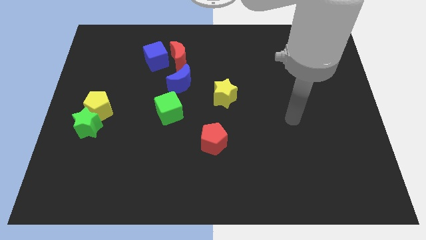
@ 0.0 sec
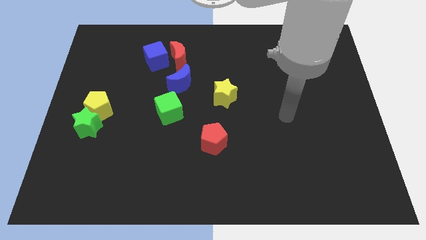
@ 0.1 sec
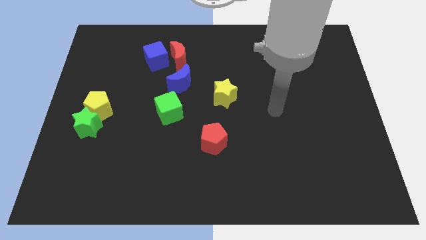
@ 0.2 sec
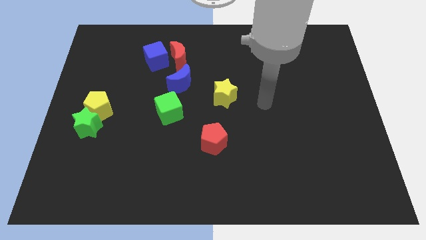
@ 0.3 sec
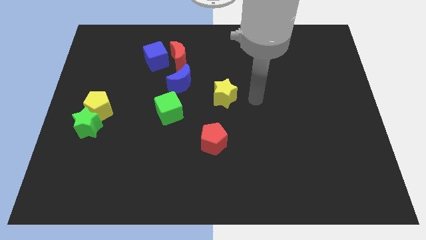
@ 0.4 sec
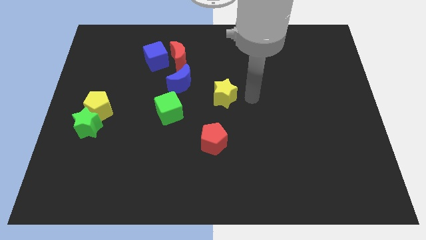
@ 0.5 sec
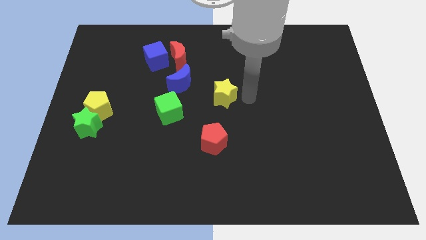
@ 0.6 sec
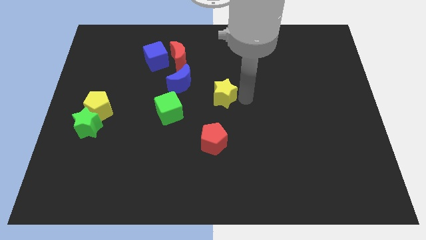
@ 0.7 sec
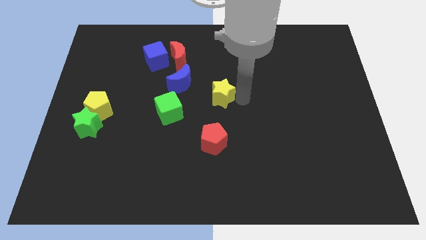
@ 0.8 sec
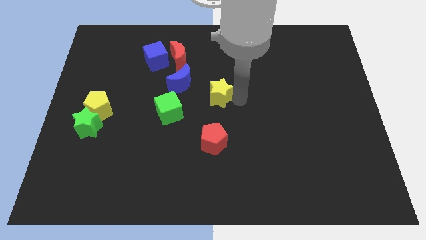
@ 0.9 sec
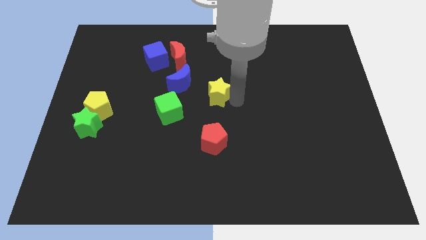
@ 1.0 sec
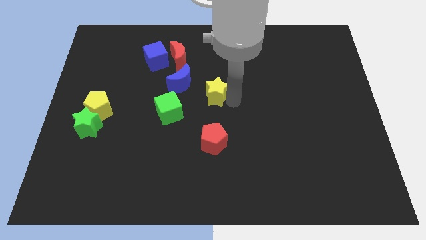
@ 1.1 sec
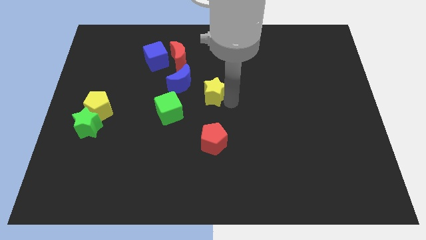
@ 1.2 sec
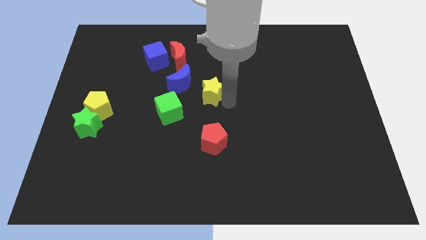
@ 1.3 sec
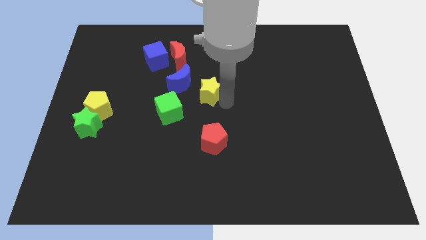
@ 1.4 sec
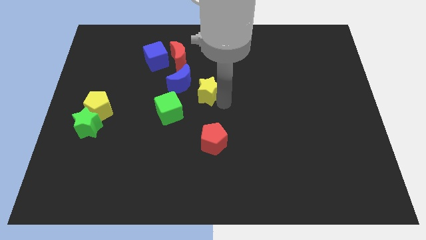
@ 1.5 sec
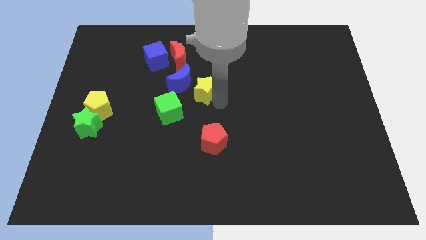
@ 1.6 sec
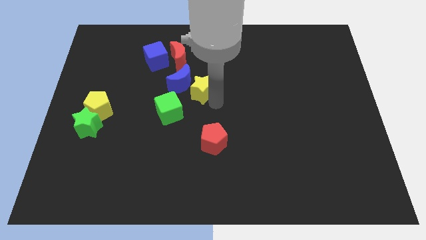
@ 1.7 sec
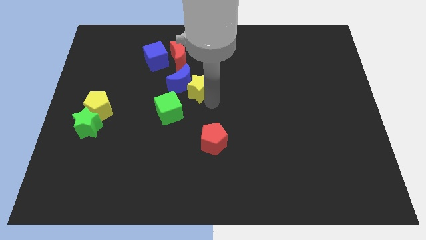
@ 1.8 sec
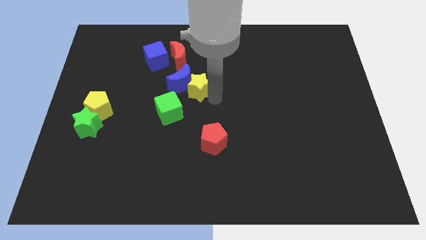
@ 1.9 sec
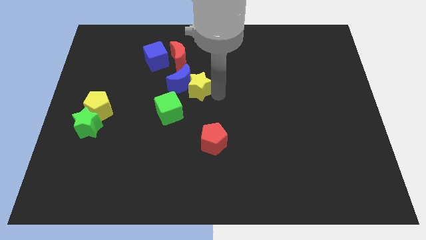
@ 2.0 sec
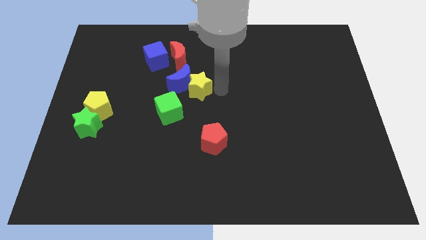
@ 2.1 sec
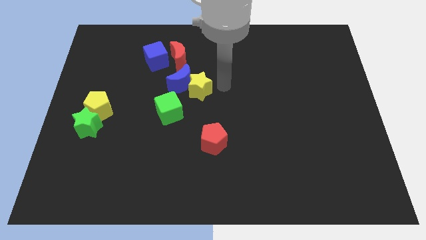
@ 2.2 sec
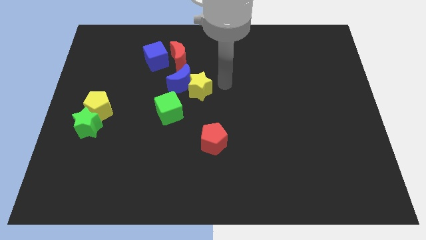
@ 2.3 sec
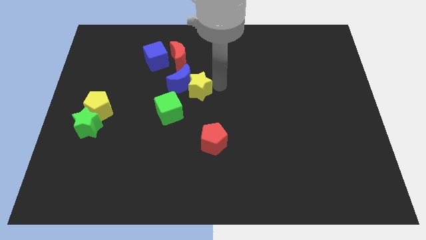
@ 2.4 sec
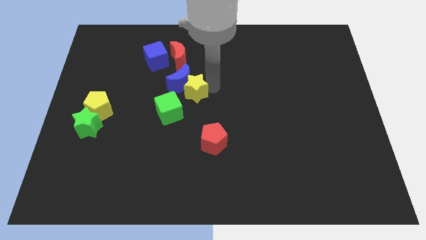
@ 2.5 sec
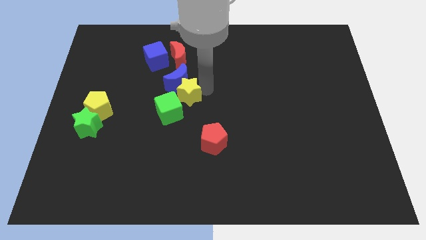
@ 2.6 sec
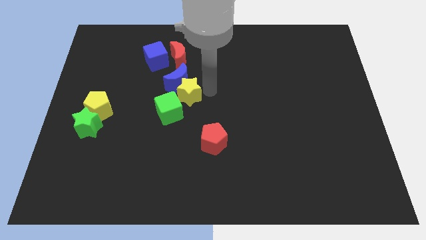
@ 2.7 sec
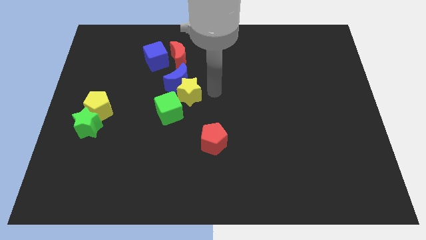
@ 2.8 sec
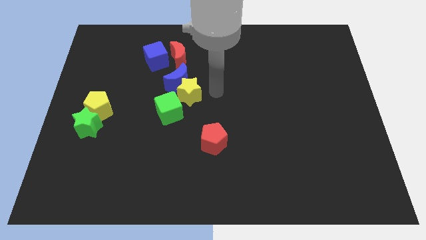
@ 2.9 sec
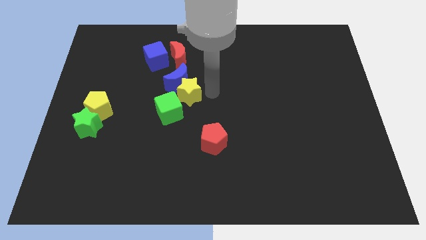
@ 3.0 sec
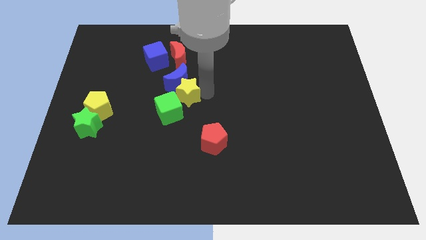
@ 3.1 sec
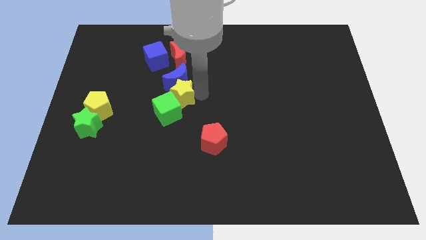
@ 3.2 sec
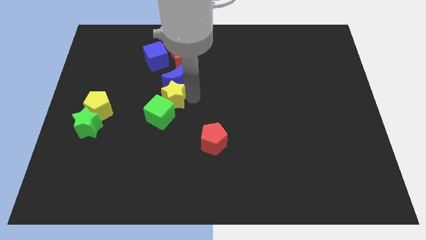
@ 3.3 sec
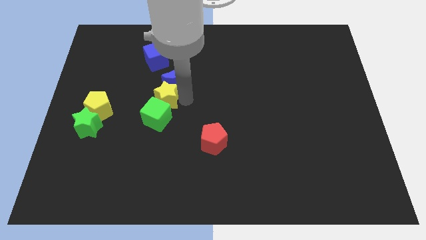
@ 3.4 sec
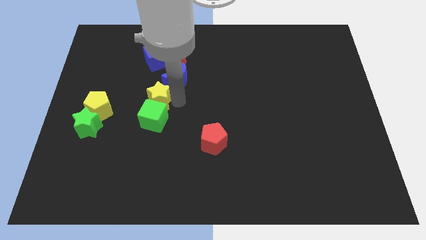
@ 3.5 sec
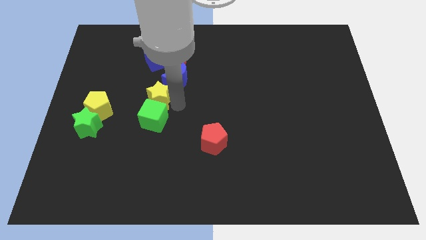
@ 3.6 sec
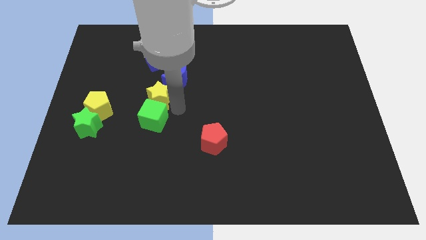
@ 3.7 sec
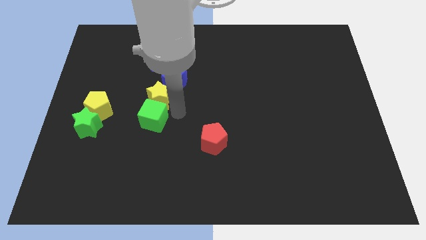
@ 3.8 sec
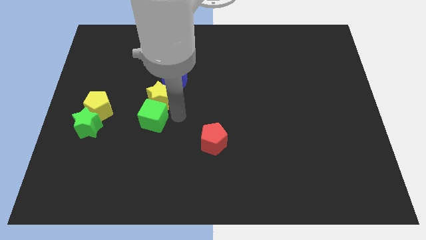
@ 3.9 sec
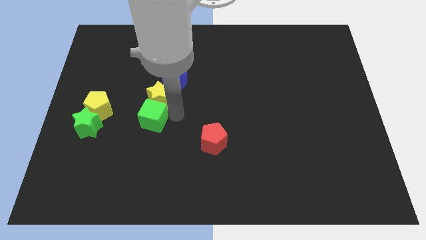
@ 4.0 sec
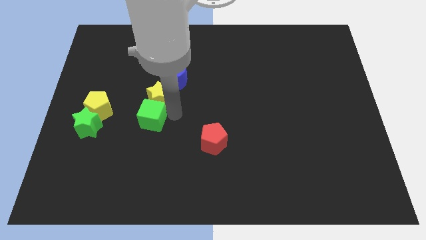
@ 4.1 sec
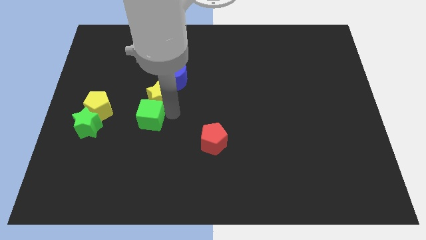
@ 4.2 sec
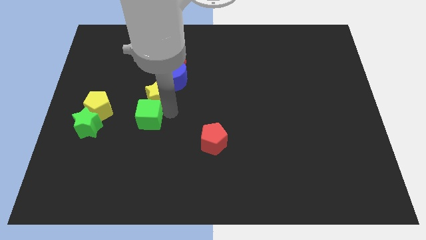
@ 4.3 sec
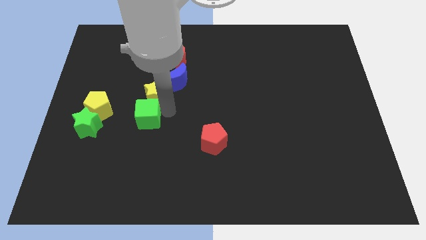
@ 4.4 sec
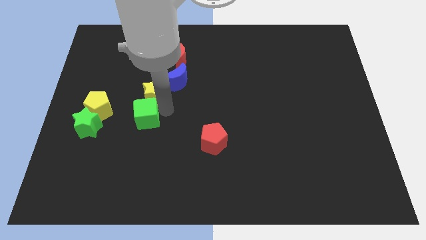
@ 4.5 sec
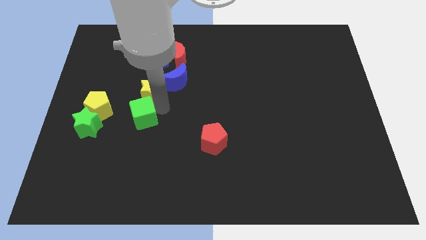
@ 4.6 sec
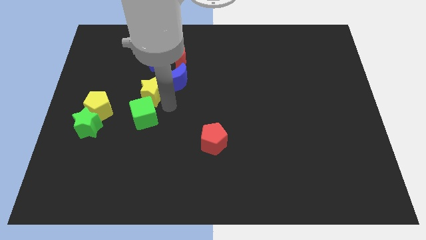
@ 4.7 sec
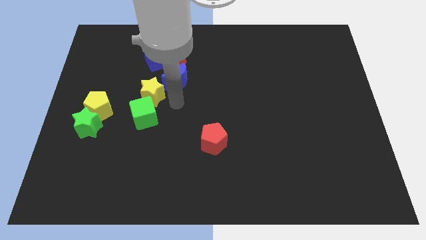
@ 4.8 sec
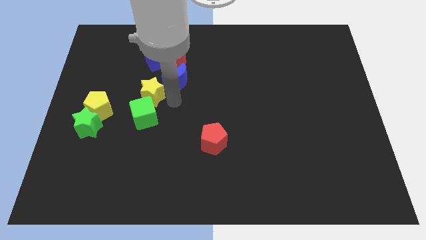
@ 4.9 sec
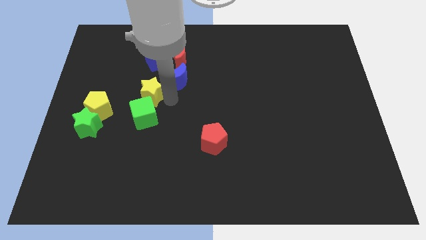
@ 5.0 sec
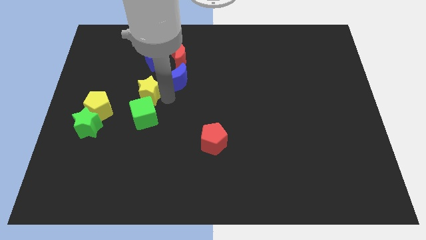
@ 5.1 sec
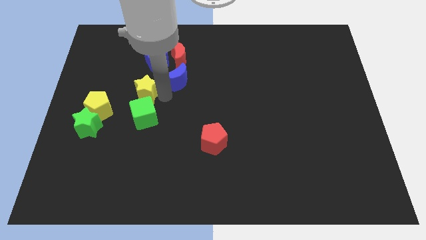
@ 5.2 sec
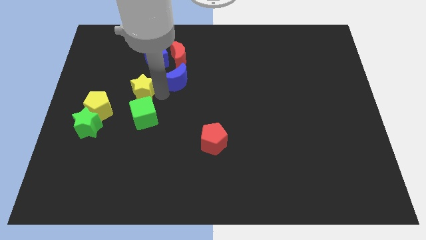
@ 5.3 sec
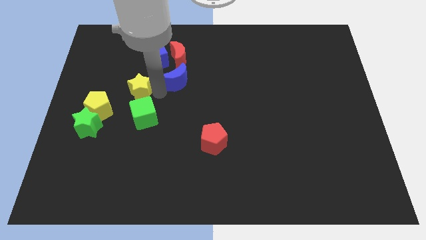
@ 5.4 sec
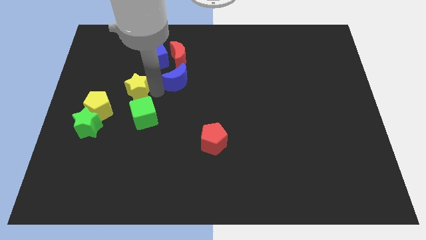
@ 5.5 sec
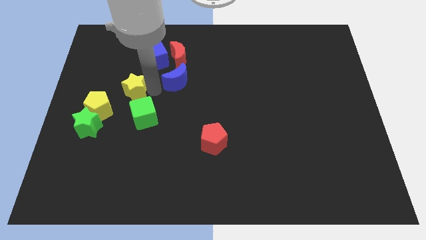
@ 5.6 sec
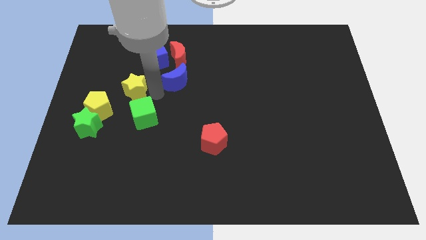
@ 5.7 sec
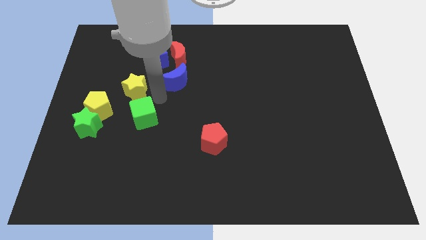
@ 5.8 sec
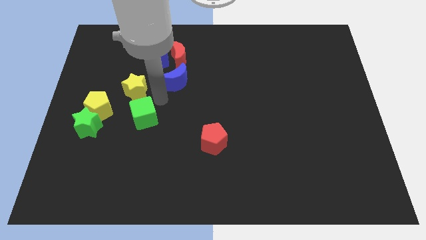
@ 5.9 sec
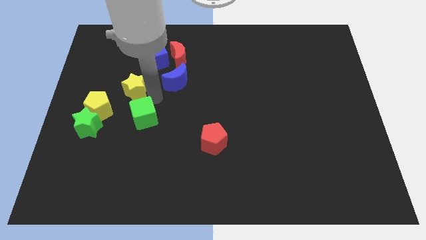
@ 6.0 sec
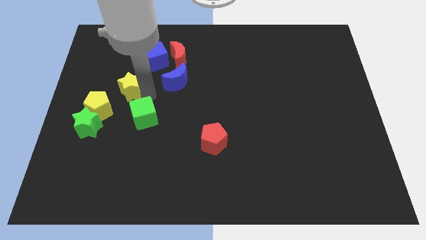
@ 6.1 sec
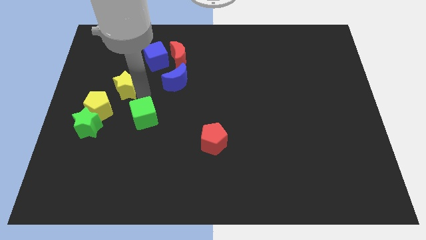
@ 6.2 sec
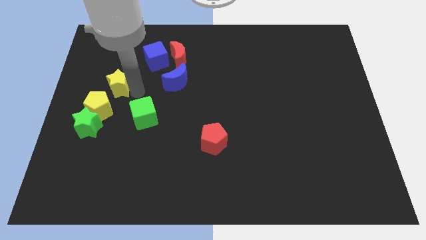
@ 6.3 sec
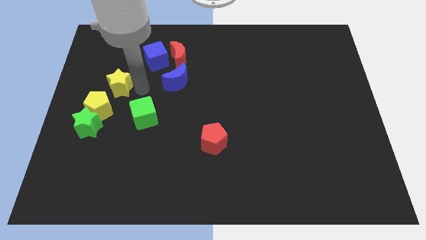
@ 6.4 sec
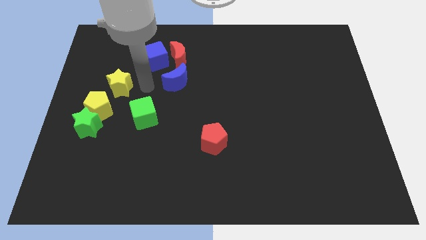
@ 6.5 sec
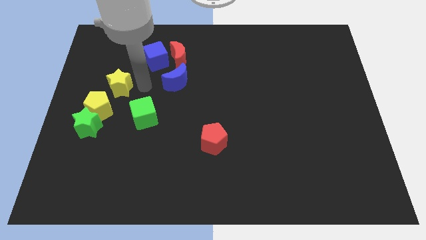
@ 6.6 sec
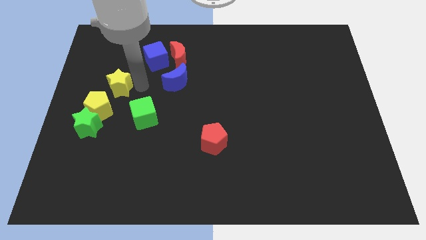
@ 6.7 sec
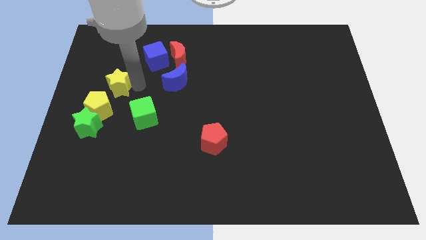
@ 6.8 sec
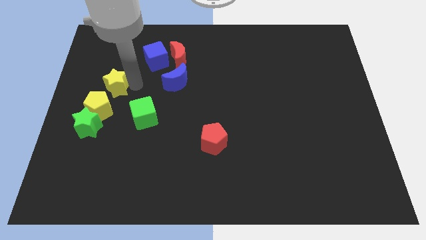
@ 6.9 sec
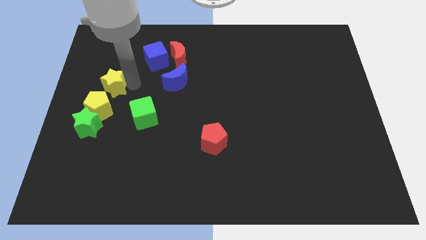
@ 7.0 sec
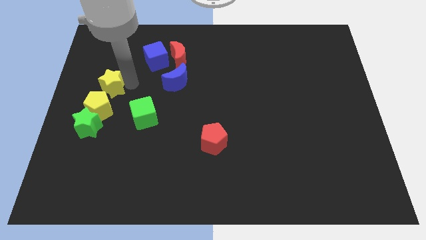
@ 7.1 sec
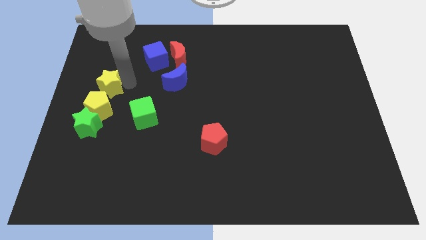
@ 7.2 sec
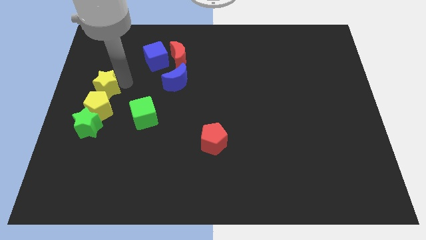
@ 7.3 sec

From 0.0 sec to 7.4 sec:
push the yellow star to the left side
